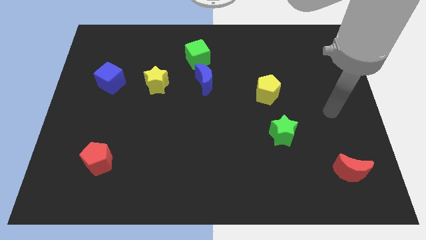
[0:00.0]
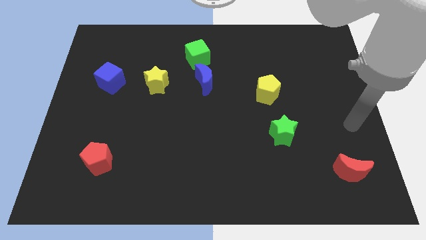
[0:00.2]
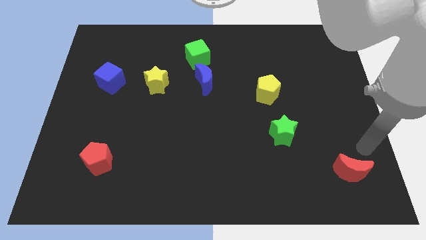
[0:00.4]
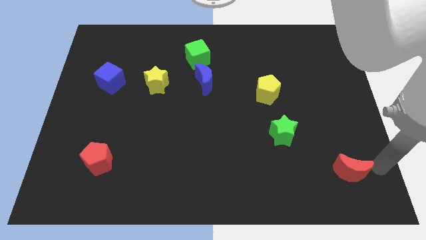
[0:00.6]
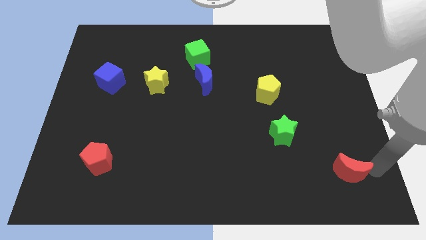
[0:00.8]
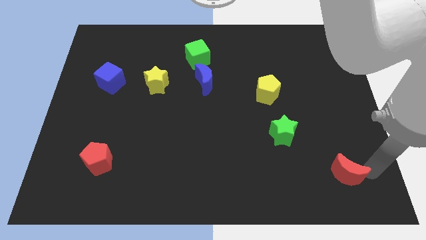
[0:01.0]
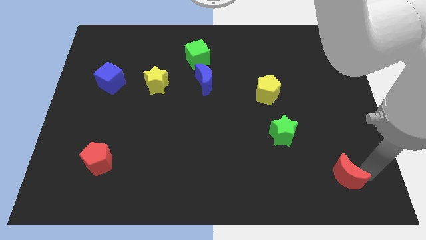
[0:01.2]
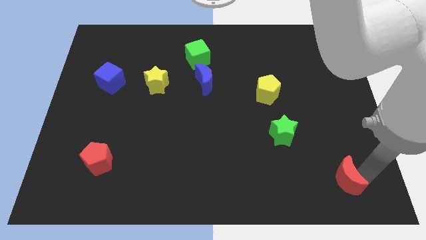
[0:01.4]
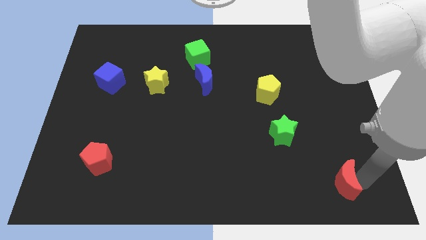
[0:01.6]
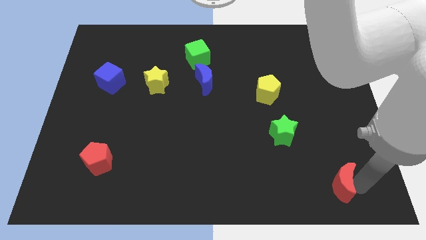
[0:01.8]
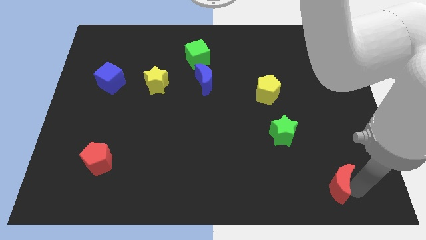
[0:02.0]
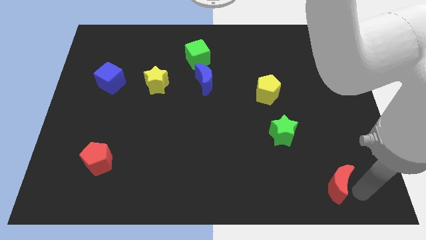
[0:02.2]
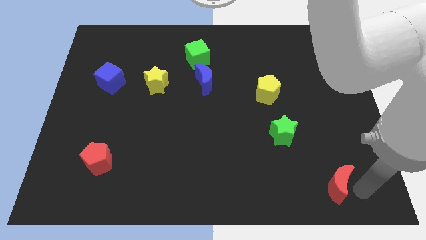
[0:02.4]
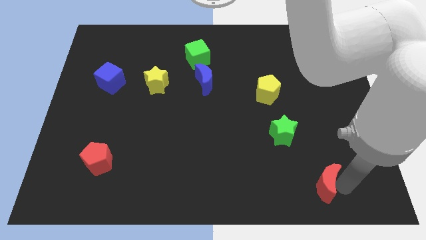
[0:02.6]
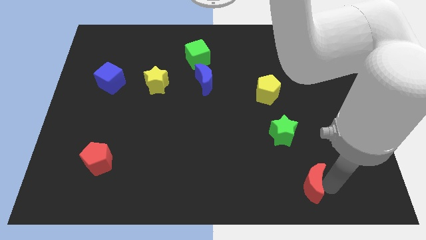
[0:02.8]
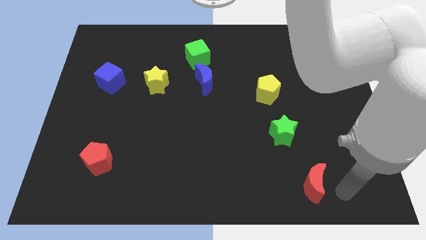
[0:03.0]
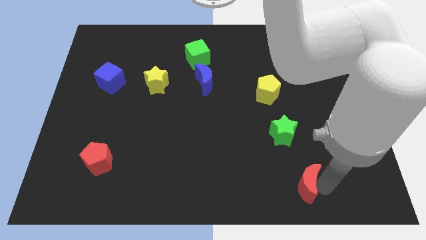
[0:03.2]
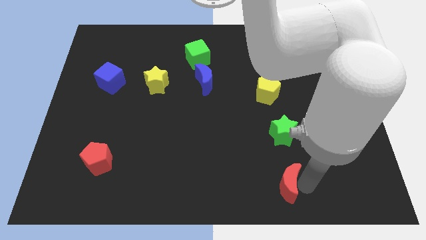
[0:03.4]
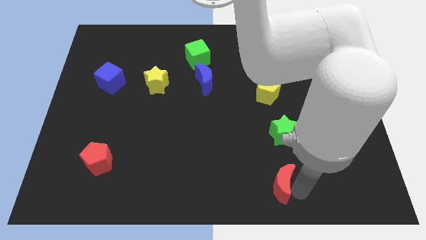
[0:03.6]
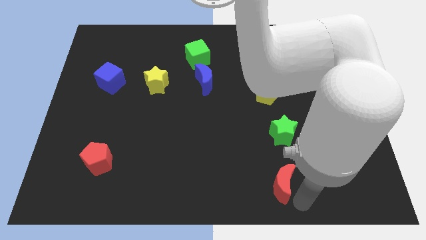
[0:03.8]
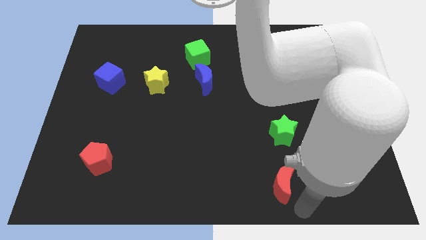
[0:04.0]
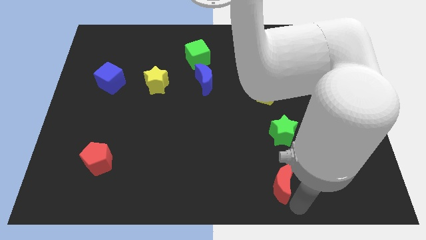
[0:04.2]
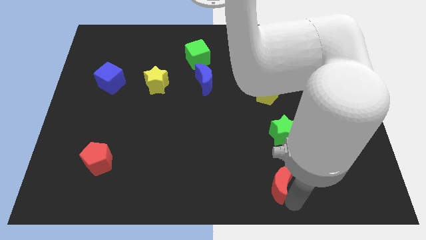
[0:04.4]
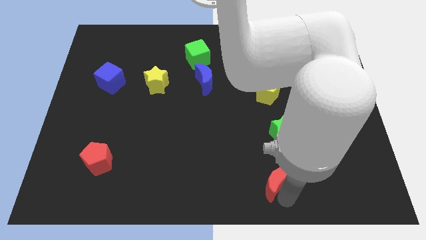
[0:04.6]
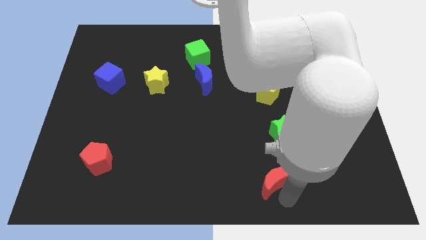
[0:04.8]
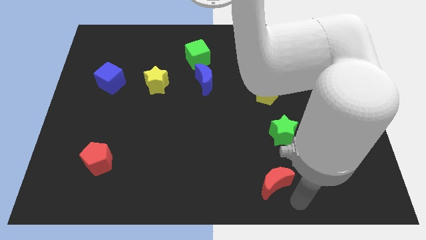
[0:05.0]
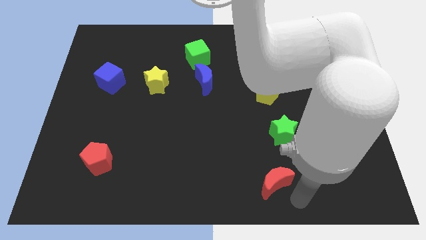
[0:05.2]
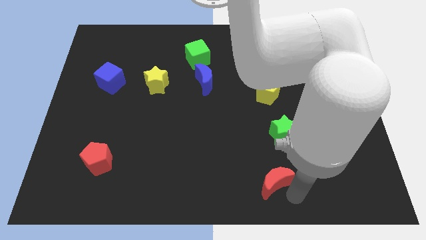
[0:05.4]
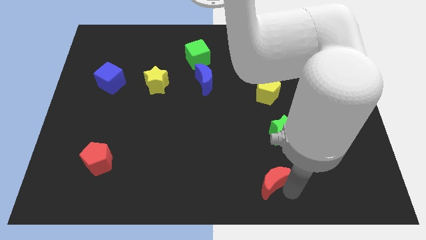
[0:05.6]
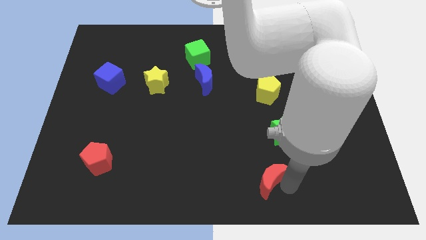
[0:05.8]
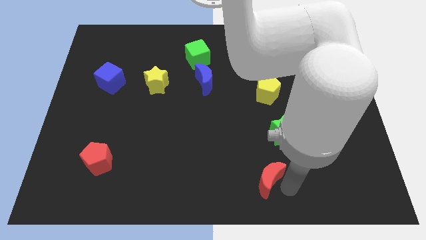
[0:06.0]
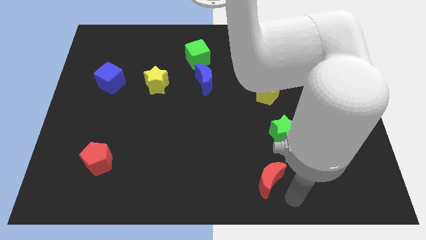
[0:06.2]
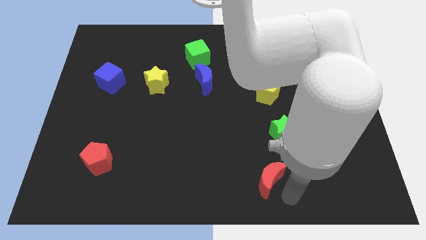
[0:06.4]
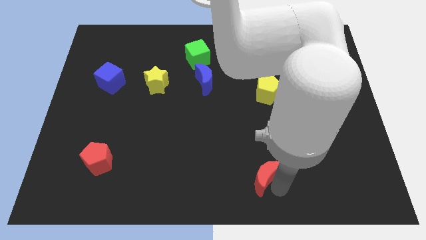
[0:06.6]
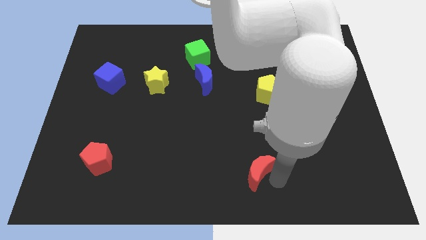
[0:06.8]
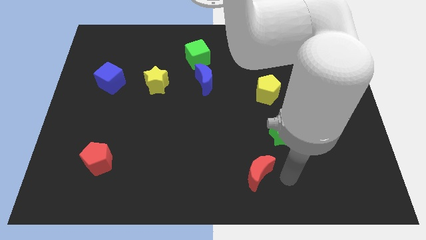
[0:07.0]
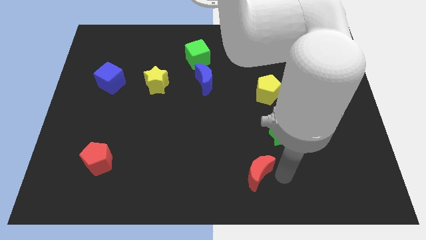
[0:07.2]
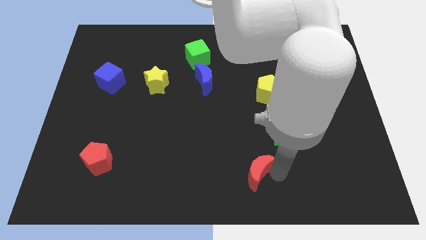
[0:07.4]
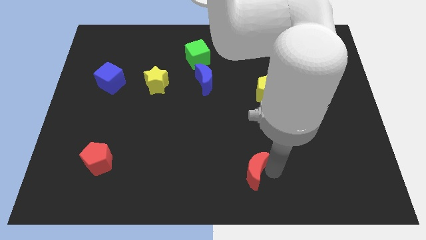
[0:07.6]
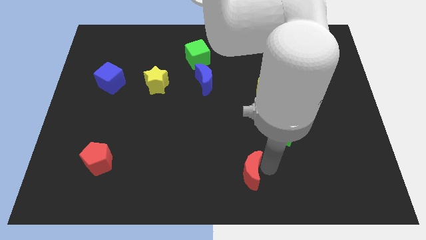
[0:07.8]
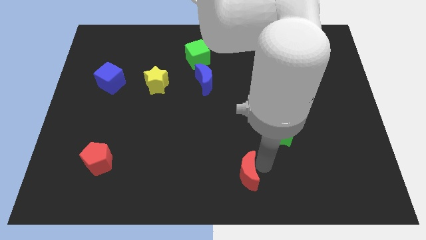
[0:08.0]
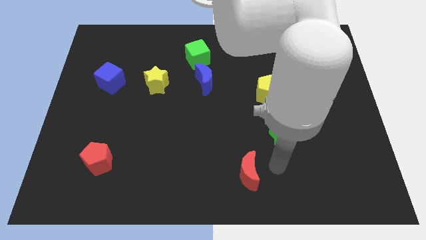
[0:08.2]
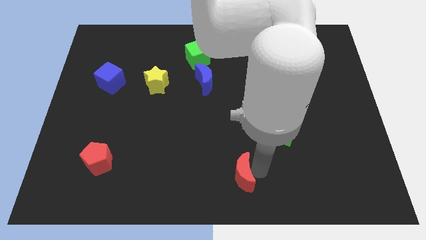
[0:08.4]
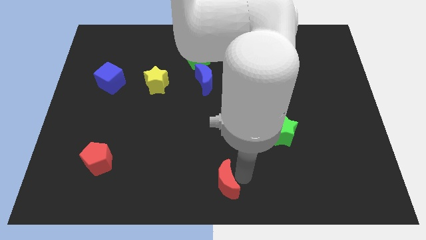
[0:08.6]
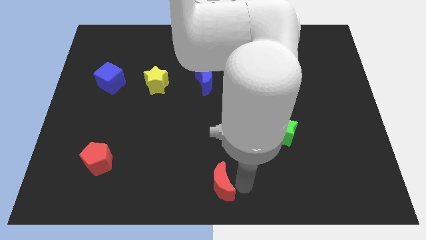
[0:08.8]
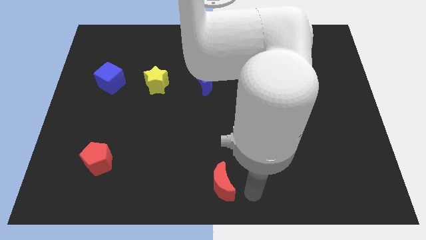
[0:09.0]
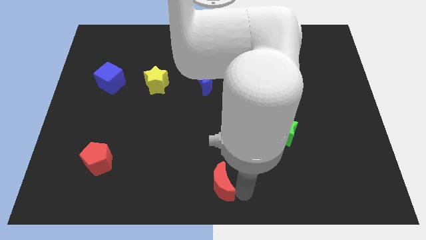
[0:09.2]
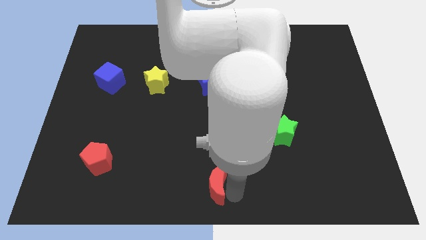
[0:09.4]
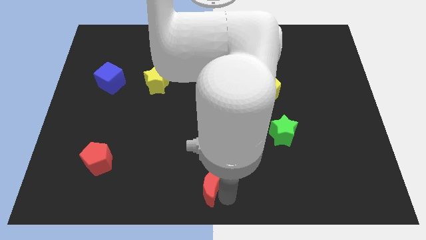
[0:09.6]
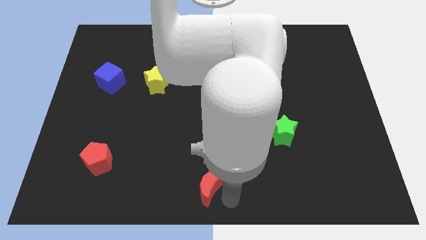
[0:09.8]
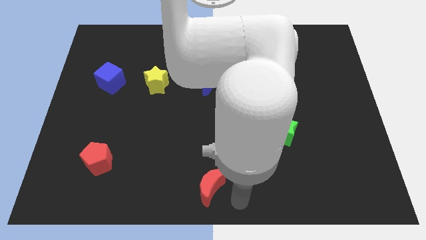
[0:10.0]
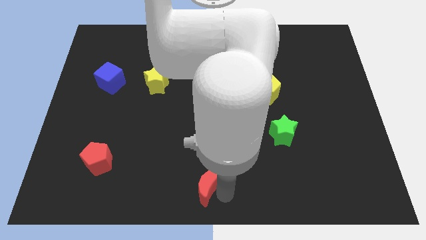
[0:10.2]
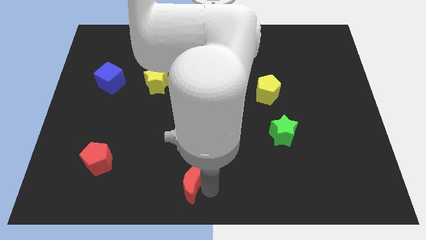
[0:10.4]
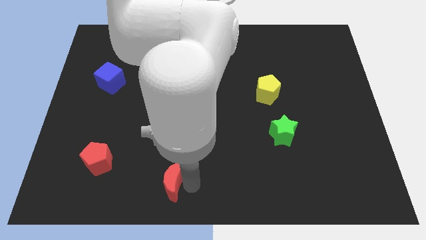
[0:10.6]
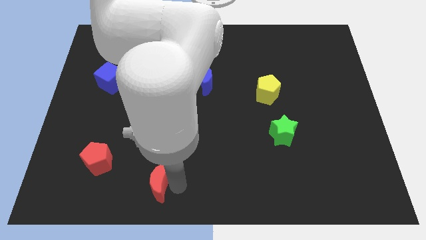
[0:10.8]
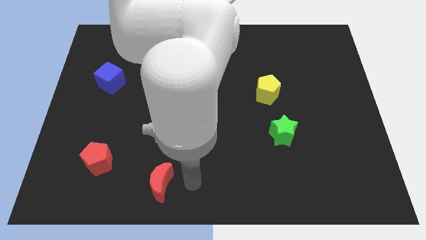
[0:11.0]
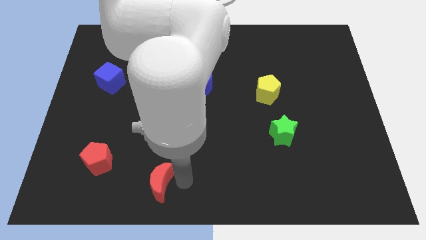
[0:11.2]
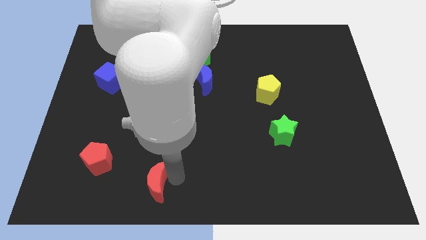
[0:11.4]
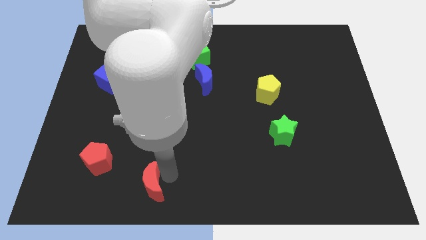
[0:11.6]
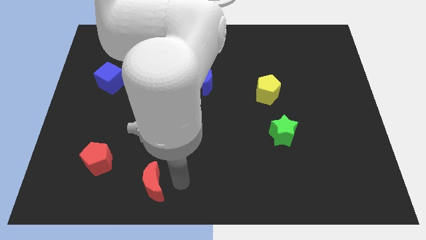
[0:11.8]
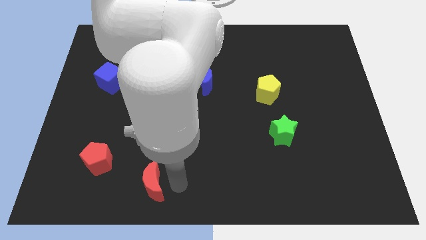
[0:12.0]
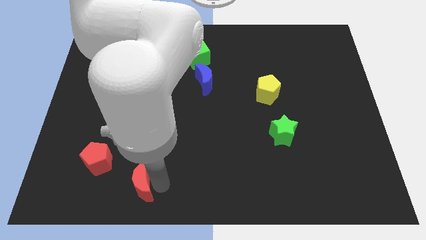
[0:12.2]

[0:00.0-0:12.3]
put the red moon diagonally down and to the right of the red pentagon

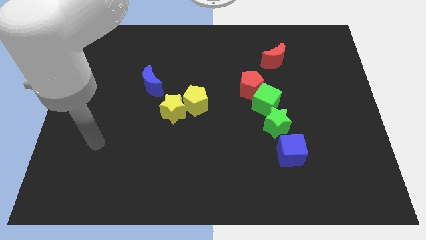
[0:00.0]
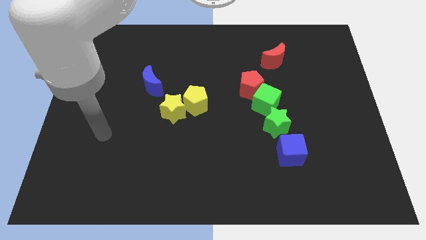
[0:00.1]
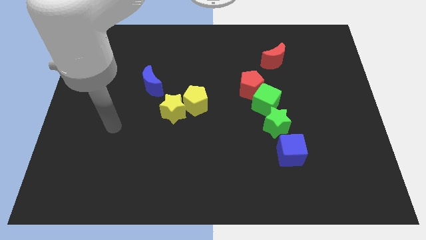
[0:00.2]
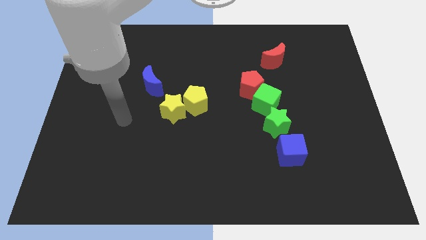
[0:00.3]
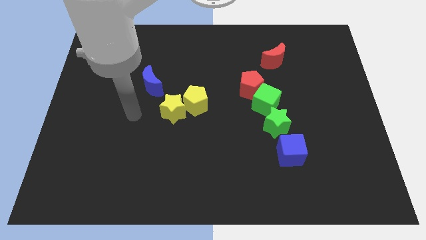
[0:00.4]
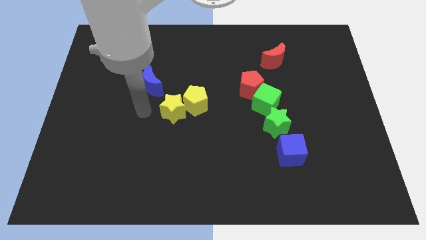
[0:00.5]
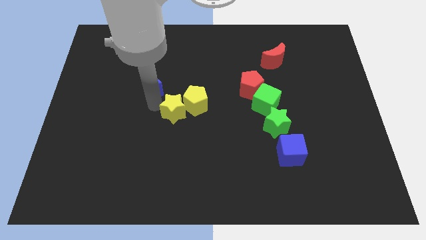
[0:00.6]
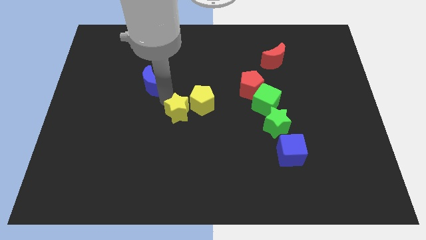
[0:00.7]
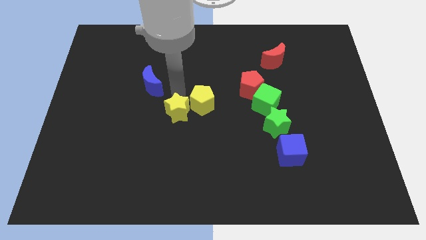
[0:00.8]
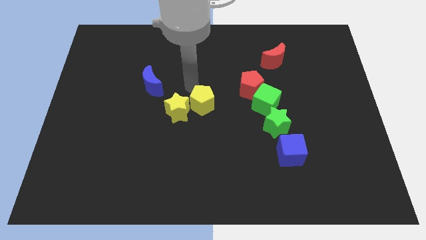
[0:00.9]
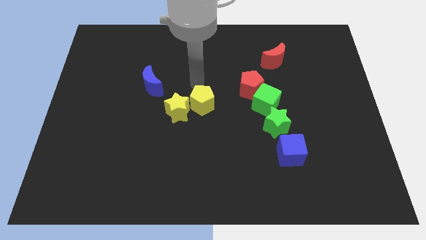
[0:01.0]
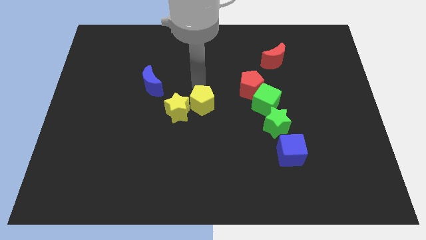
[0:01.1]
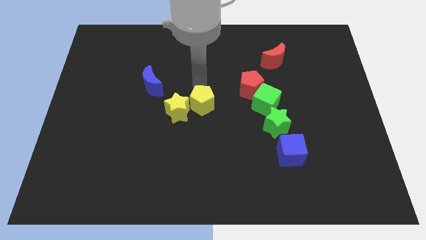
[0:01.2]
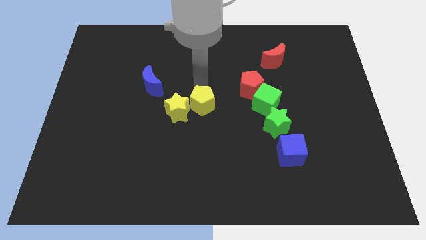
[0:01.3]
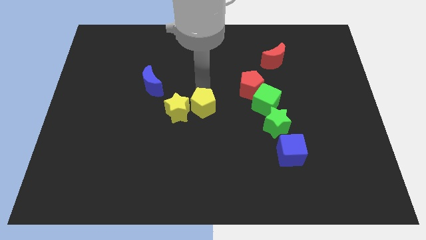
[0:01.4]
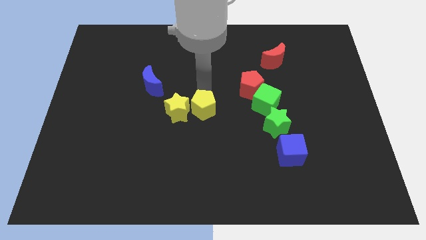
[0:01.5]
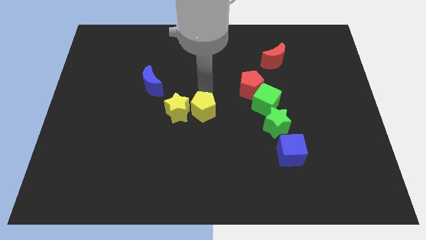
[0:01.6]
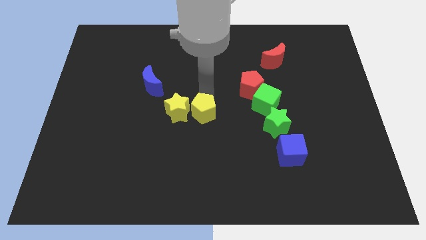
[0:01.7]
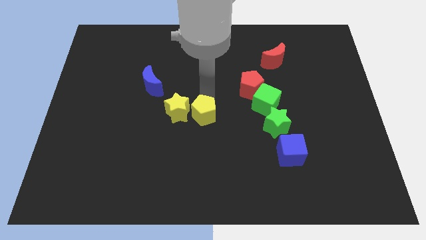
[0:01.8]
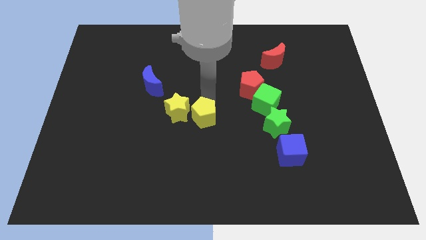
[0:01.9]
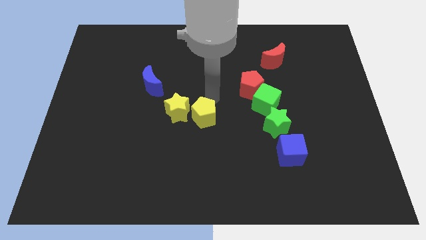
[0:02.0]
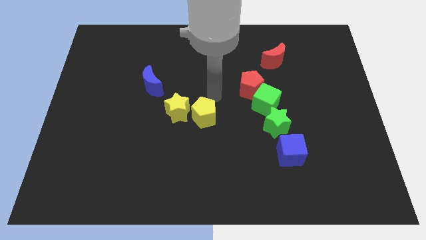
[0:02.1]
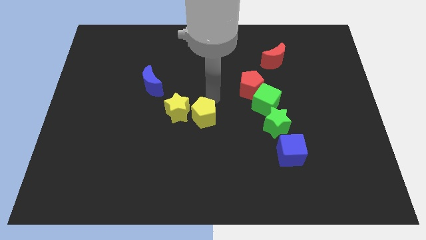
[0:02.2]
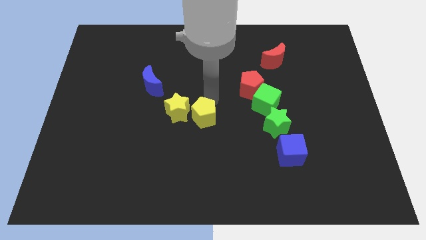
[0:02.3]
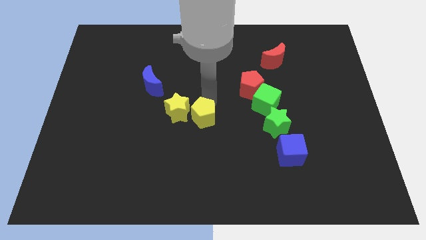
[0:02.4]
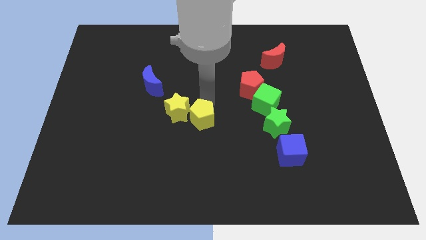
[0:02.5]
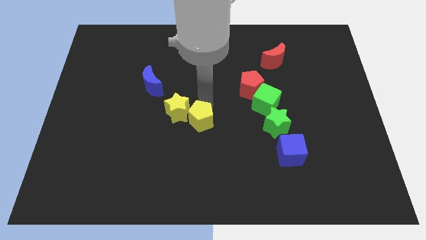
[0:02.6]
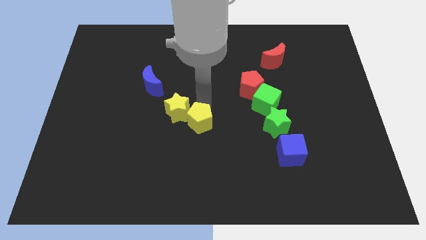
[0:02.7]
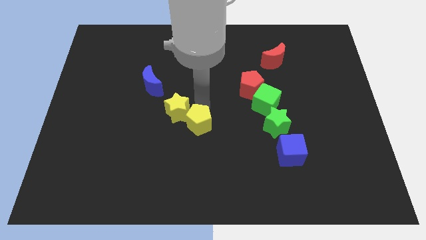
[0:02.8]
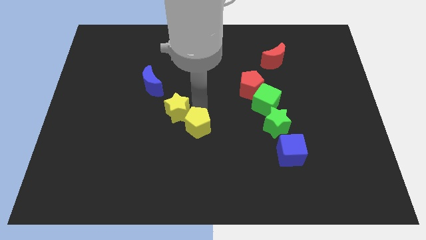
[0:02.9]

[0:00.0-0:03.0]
push the yellow pentagon below the yellow star
